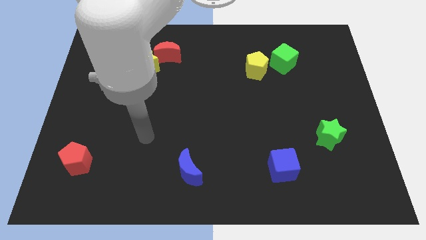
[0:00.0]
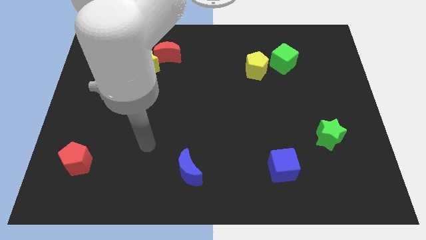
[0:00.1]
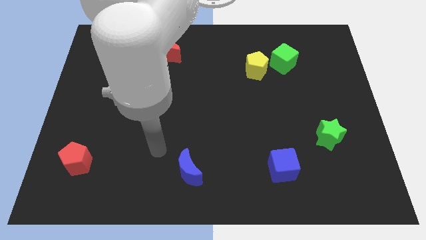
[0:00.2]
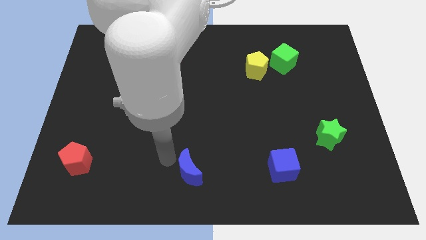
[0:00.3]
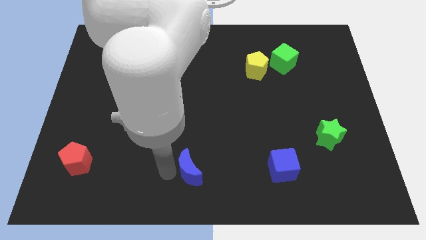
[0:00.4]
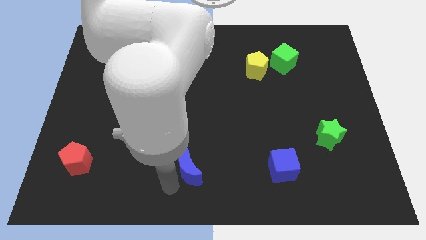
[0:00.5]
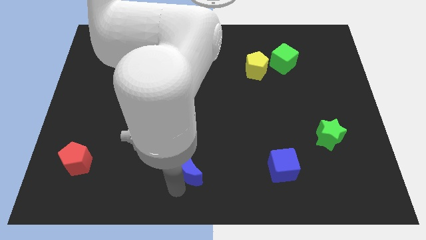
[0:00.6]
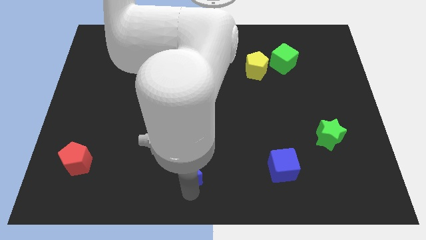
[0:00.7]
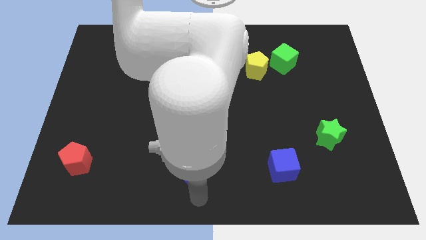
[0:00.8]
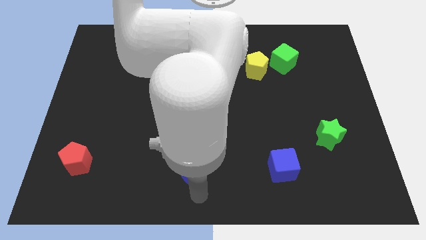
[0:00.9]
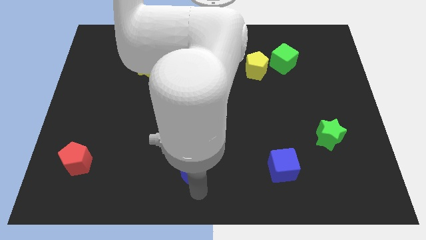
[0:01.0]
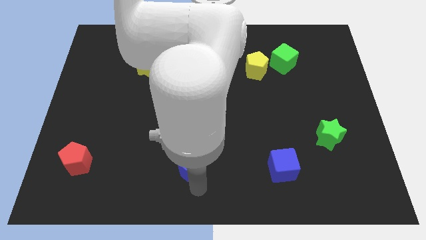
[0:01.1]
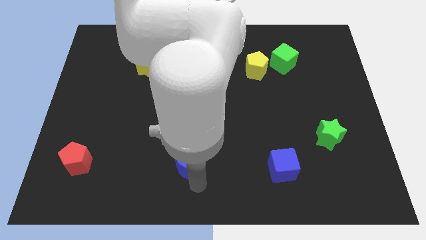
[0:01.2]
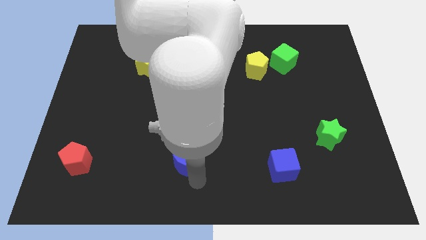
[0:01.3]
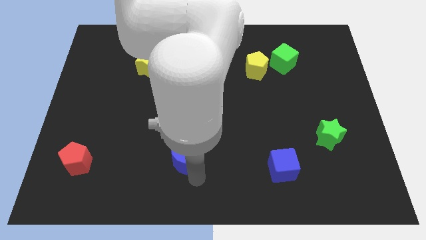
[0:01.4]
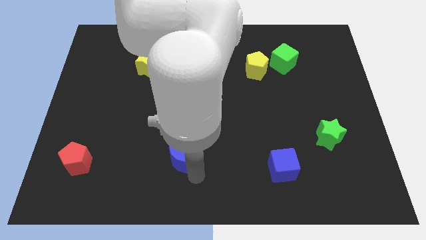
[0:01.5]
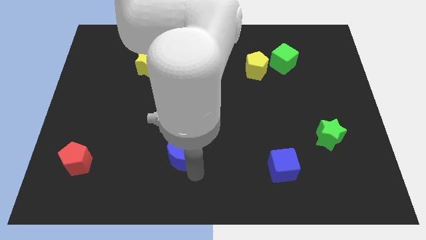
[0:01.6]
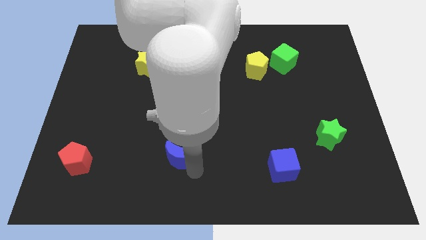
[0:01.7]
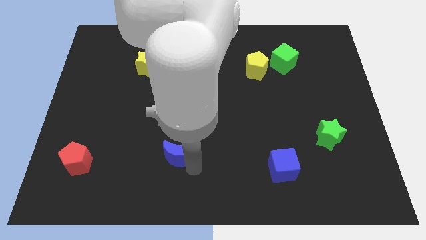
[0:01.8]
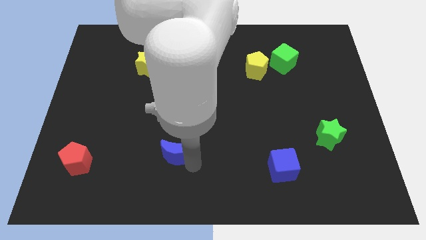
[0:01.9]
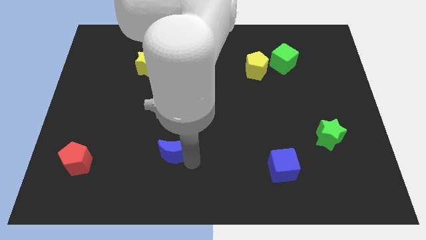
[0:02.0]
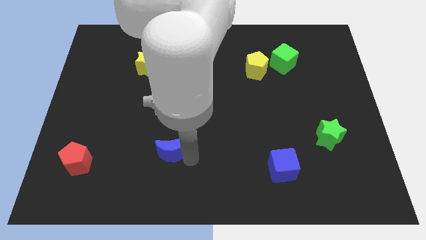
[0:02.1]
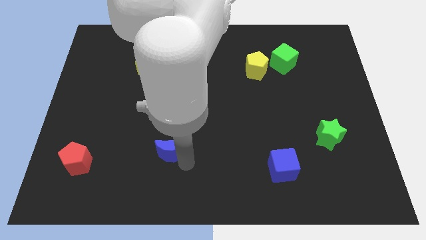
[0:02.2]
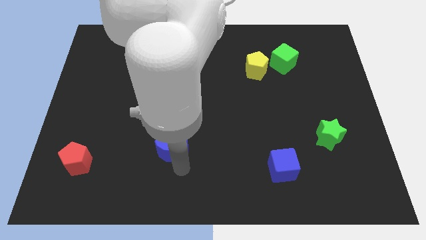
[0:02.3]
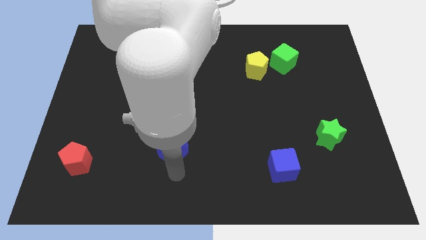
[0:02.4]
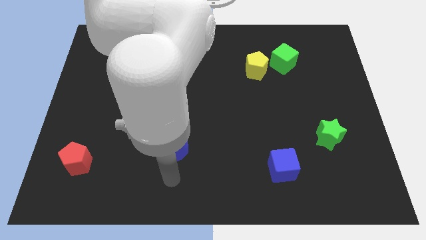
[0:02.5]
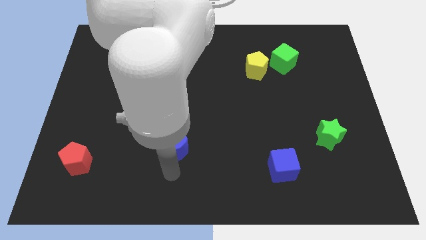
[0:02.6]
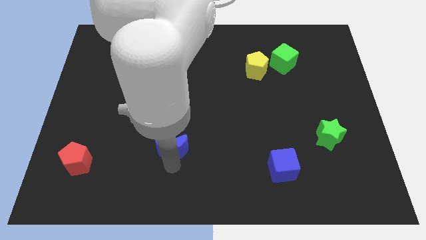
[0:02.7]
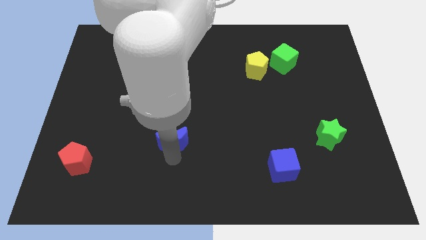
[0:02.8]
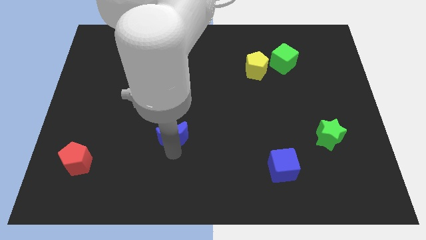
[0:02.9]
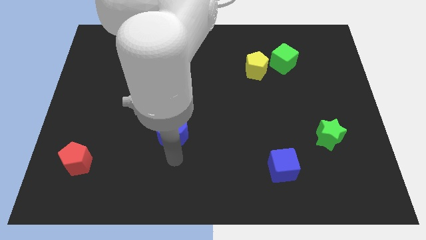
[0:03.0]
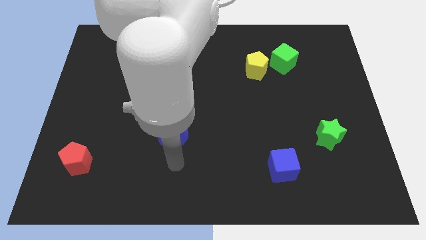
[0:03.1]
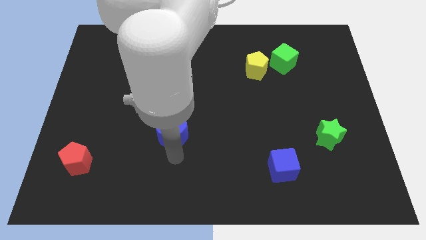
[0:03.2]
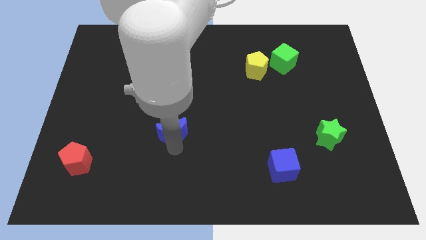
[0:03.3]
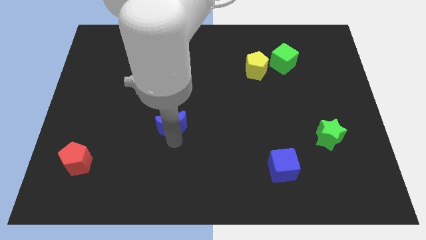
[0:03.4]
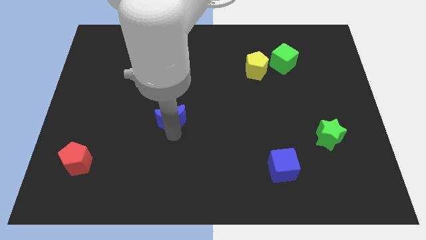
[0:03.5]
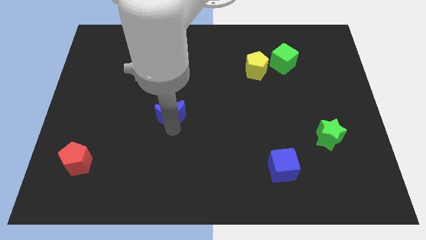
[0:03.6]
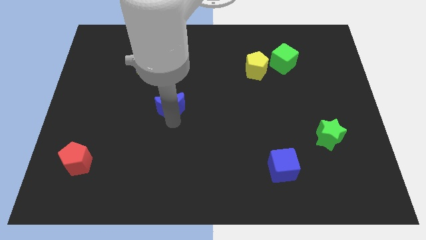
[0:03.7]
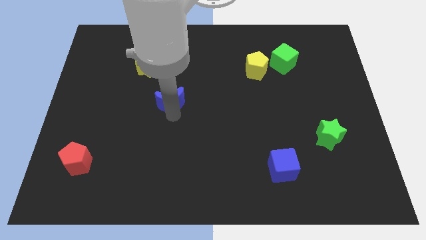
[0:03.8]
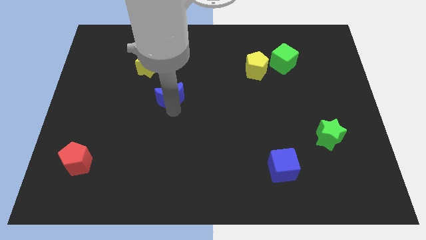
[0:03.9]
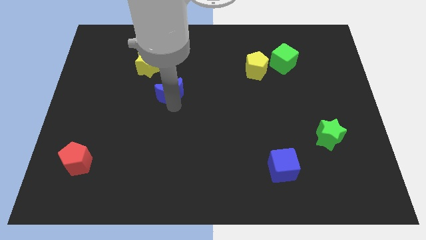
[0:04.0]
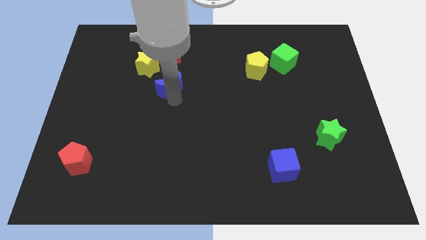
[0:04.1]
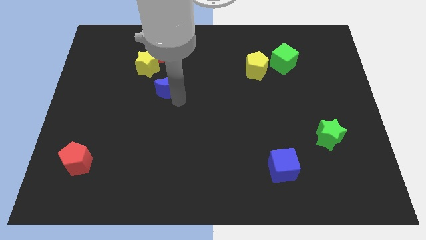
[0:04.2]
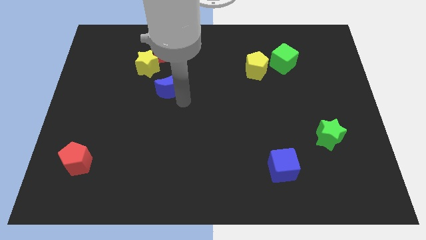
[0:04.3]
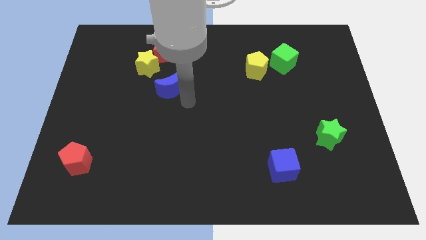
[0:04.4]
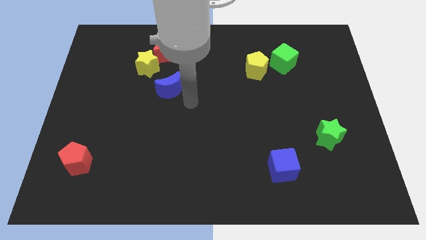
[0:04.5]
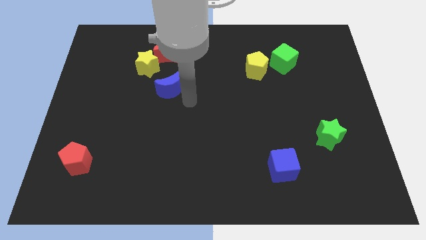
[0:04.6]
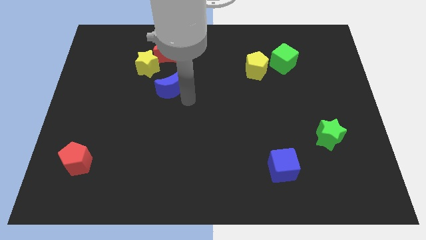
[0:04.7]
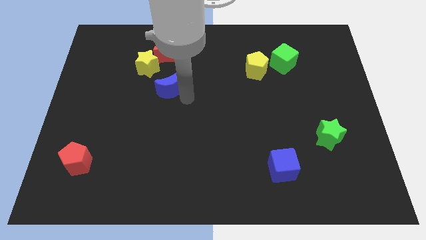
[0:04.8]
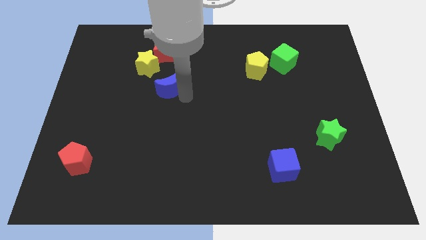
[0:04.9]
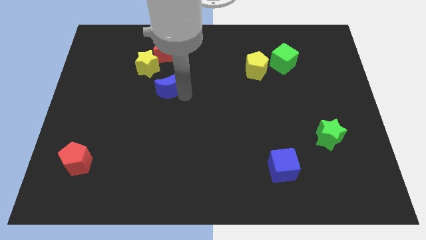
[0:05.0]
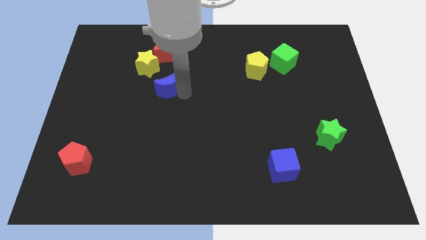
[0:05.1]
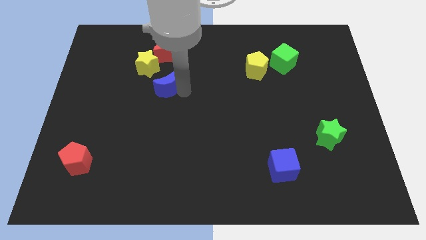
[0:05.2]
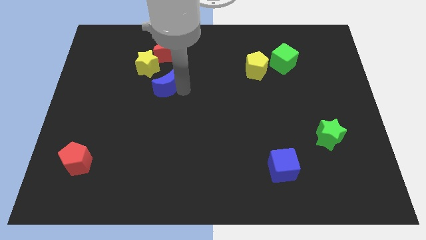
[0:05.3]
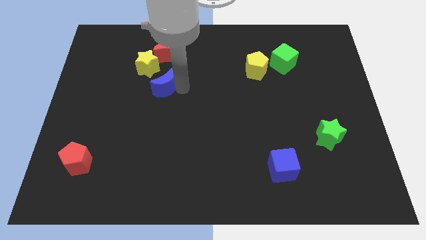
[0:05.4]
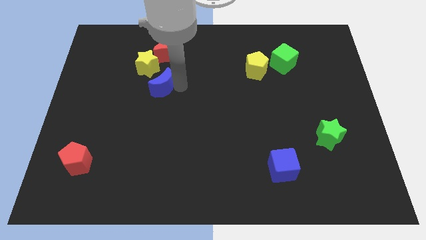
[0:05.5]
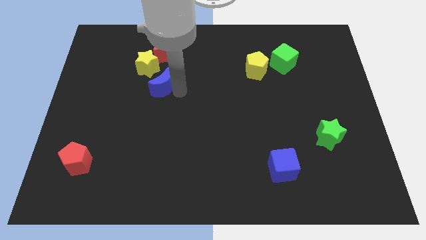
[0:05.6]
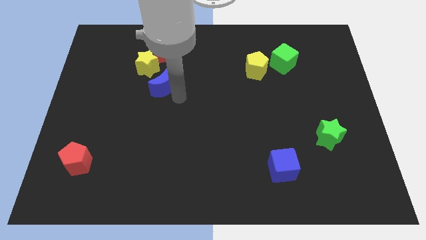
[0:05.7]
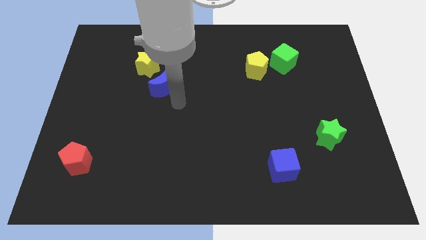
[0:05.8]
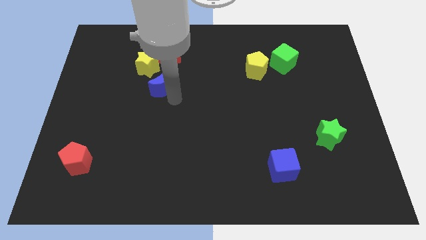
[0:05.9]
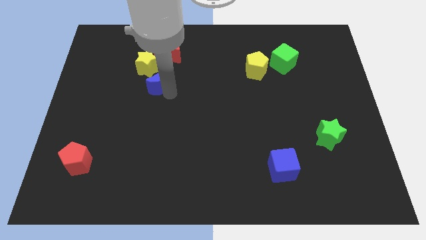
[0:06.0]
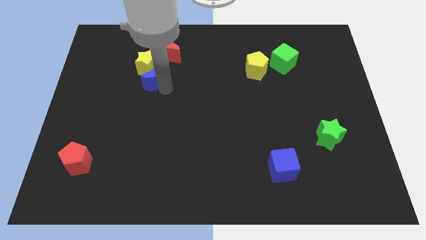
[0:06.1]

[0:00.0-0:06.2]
slide the blue moon next to the yellow star

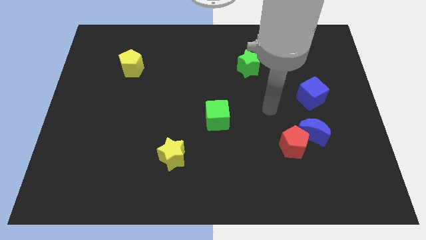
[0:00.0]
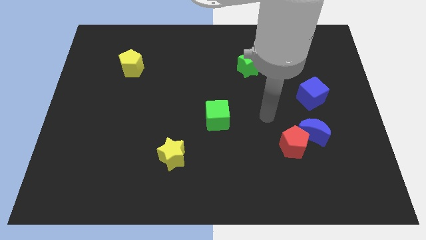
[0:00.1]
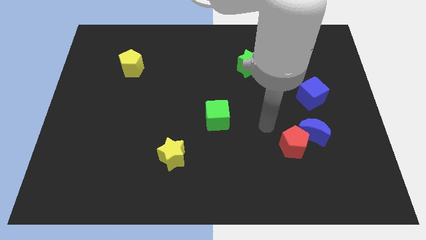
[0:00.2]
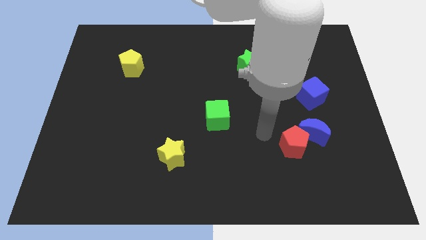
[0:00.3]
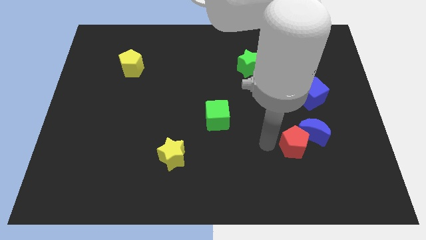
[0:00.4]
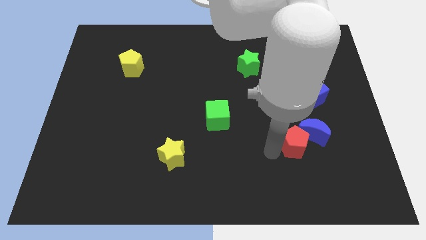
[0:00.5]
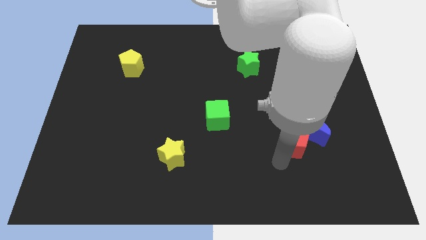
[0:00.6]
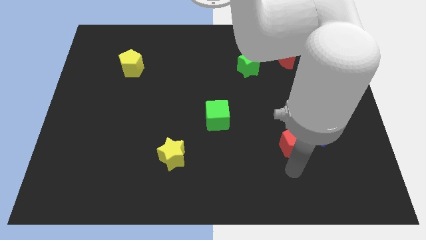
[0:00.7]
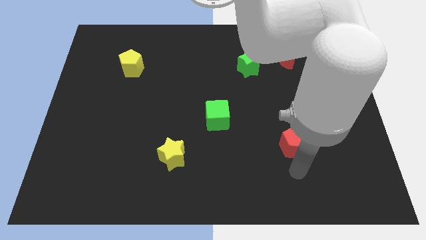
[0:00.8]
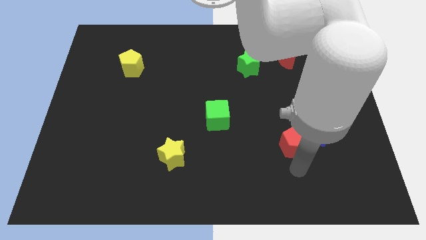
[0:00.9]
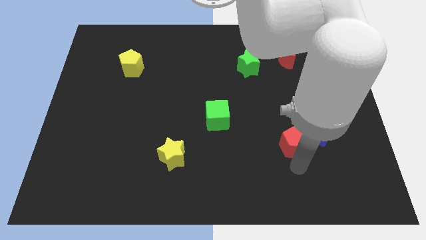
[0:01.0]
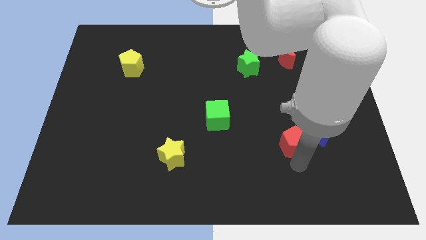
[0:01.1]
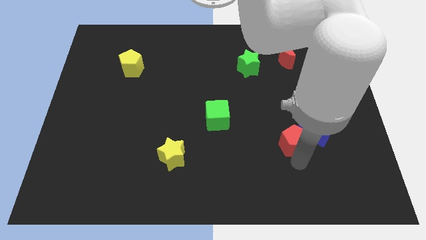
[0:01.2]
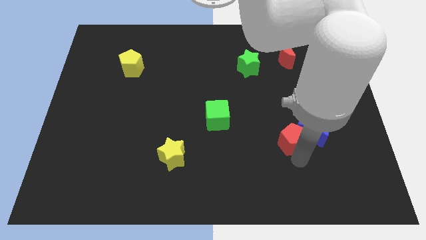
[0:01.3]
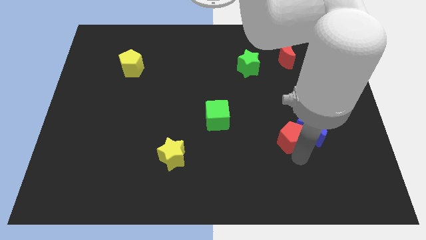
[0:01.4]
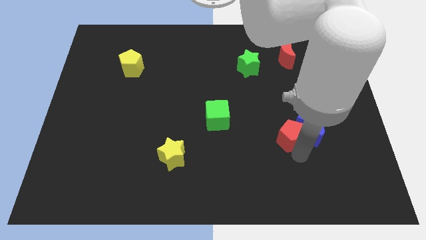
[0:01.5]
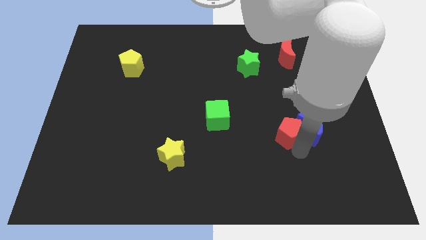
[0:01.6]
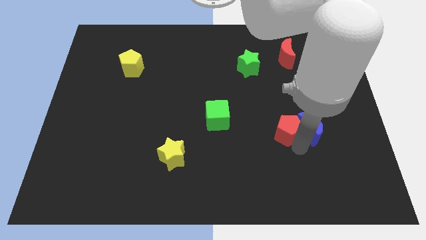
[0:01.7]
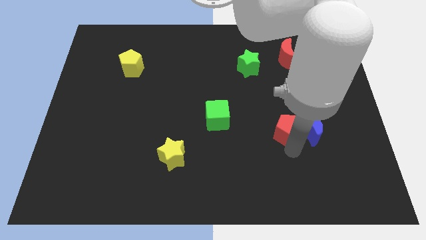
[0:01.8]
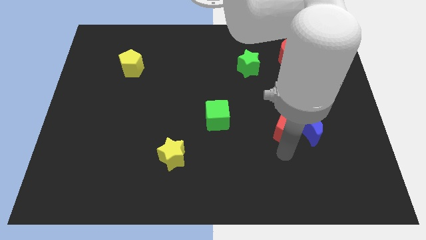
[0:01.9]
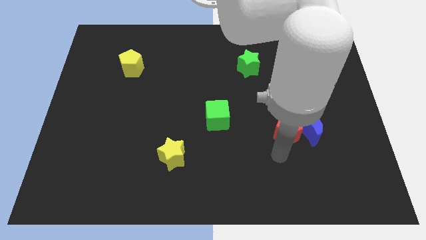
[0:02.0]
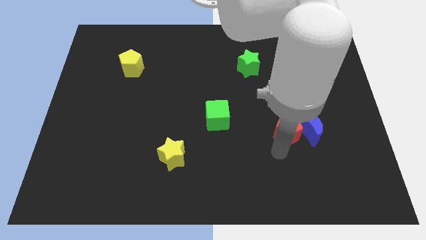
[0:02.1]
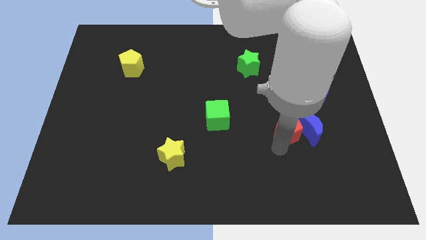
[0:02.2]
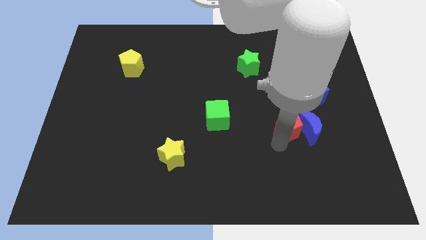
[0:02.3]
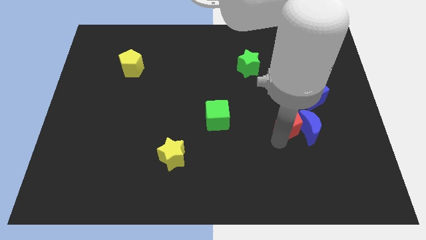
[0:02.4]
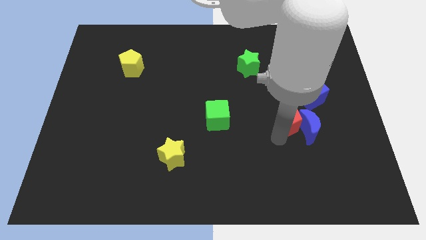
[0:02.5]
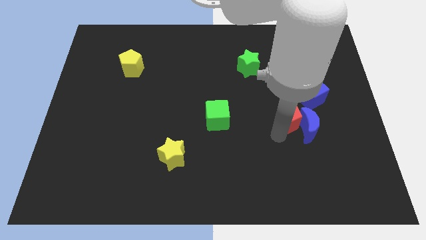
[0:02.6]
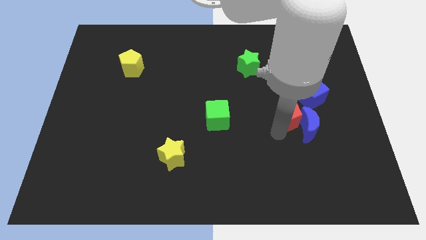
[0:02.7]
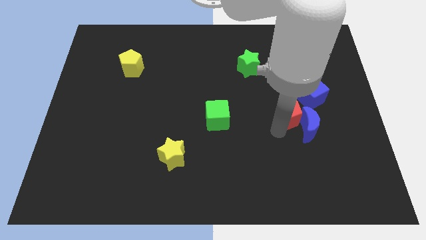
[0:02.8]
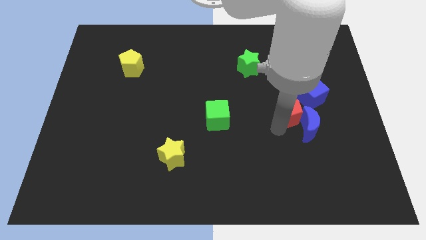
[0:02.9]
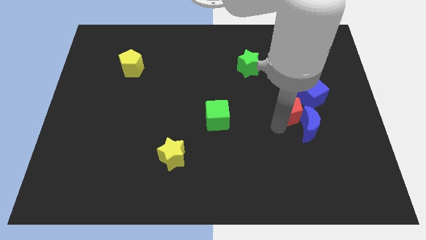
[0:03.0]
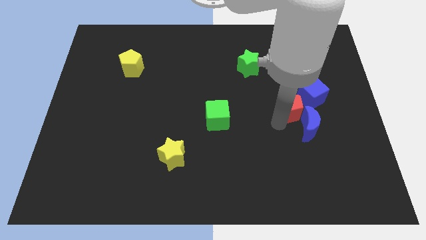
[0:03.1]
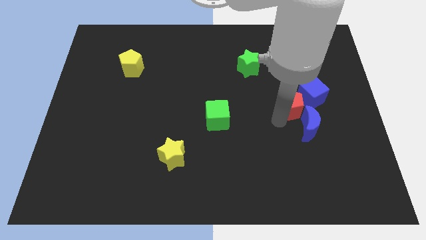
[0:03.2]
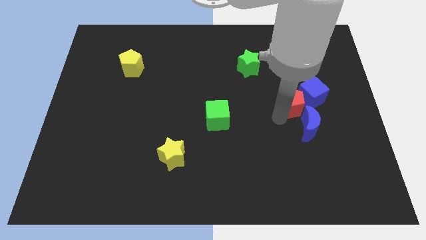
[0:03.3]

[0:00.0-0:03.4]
put the red pentagon to the blue cube
